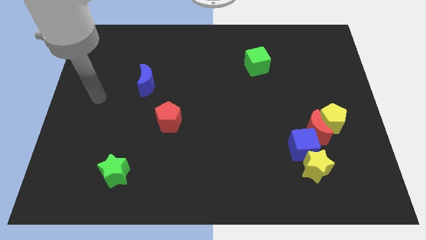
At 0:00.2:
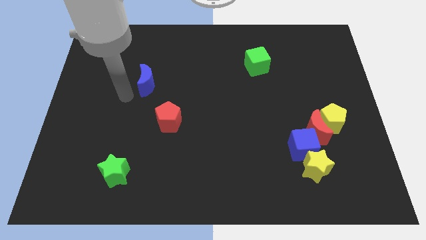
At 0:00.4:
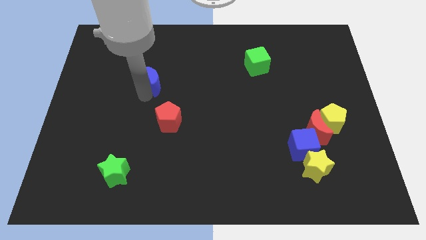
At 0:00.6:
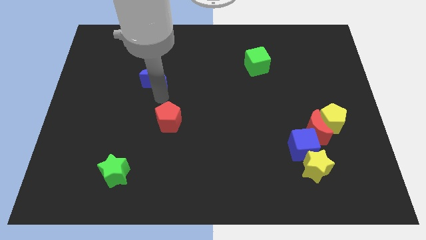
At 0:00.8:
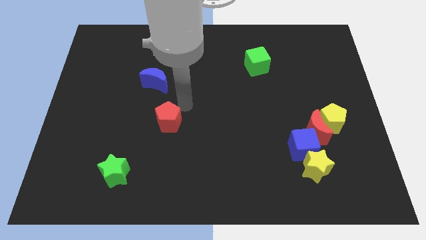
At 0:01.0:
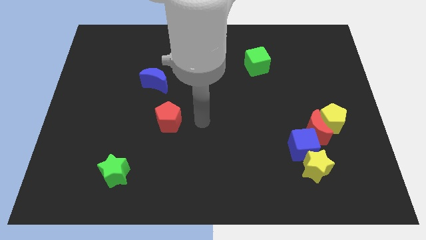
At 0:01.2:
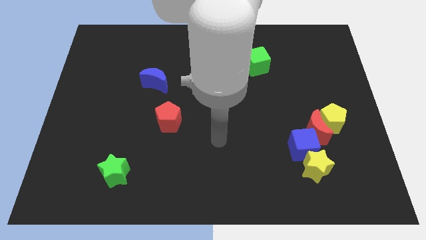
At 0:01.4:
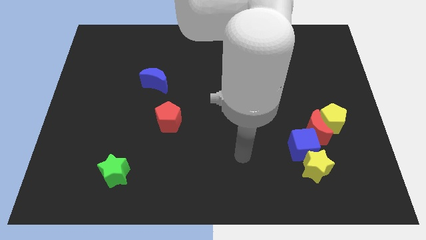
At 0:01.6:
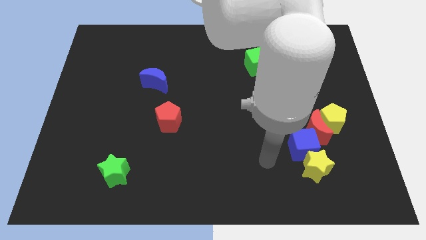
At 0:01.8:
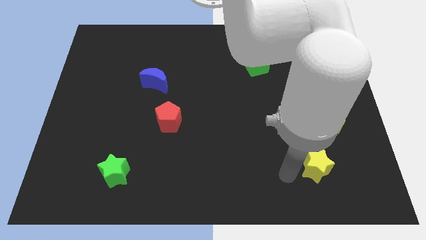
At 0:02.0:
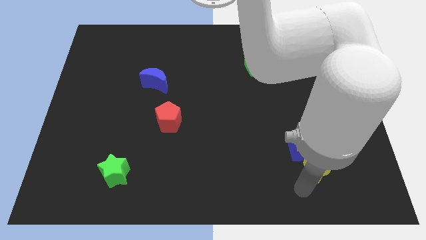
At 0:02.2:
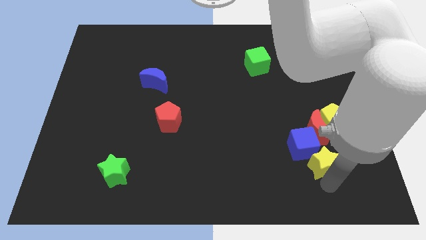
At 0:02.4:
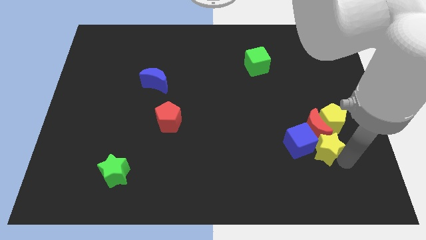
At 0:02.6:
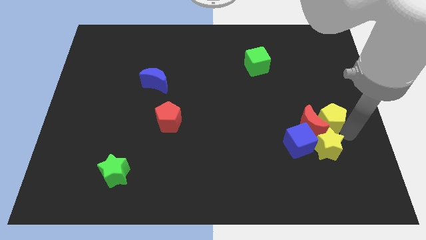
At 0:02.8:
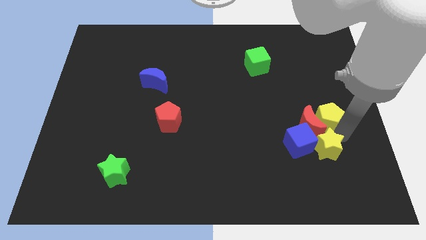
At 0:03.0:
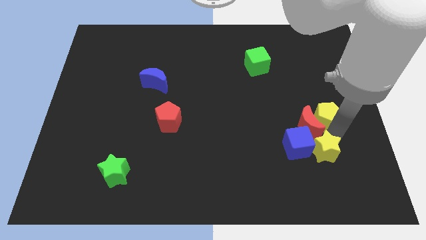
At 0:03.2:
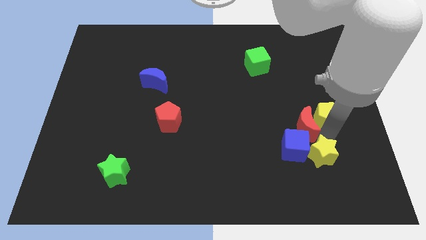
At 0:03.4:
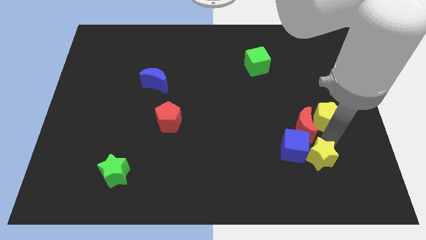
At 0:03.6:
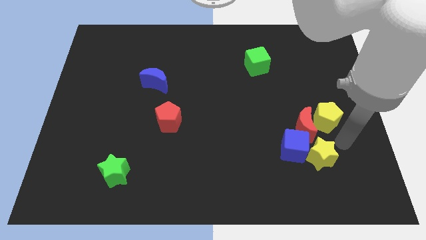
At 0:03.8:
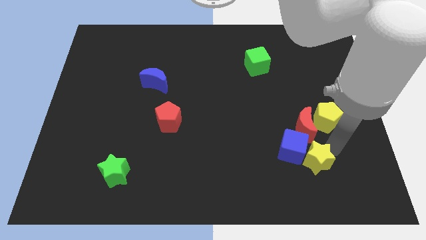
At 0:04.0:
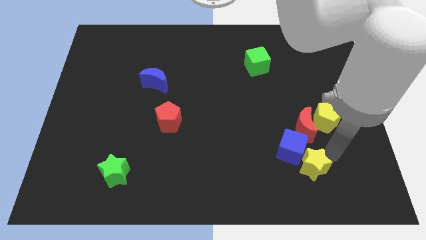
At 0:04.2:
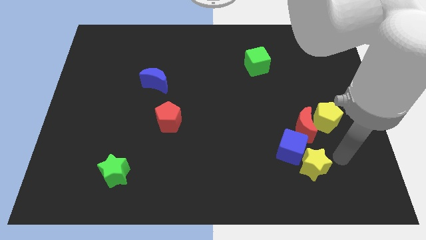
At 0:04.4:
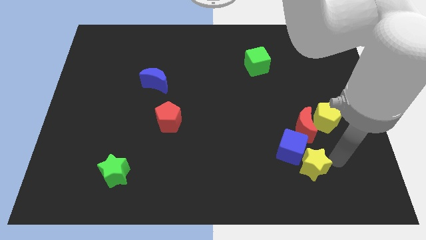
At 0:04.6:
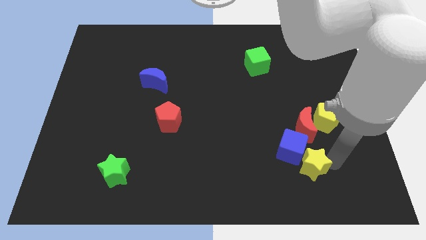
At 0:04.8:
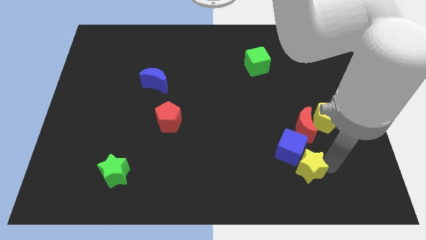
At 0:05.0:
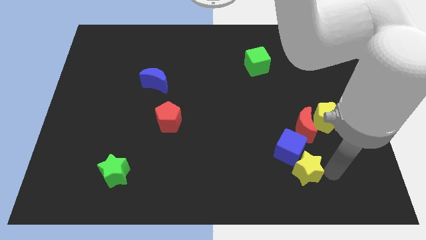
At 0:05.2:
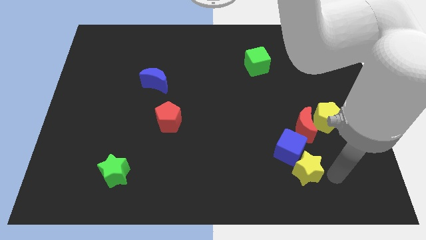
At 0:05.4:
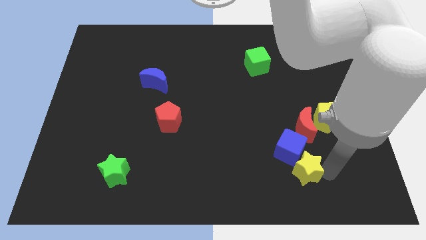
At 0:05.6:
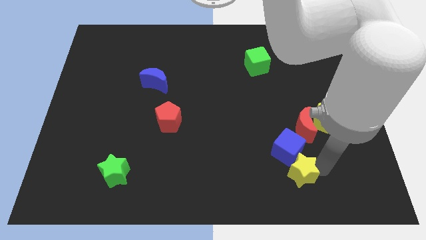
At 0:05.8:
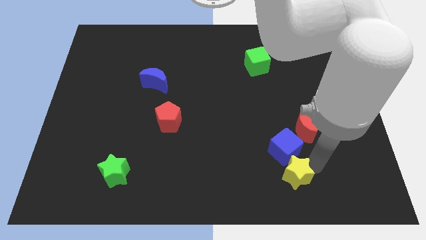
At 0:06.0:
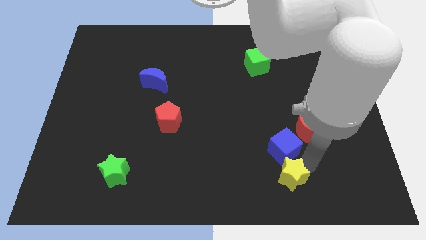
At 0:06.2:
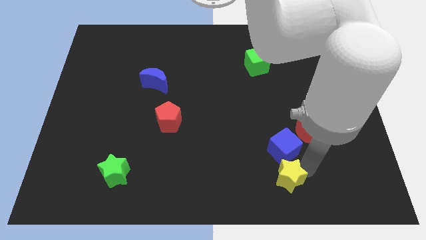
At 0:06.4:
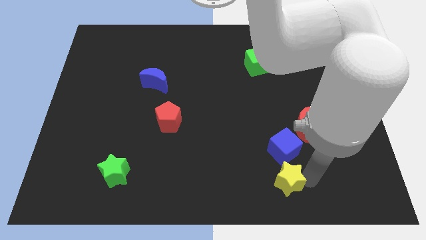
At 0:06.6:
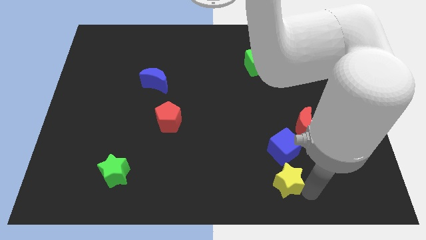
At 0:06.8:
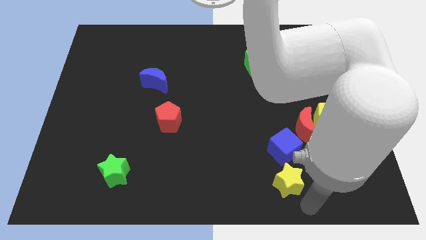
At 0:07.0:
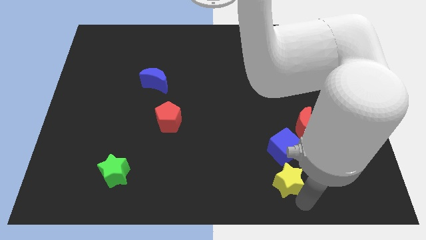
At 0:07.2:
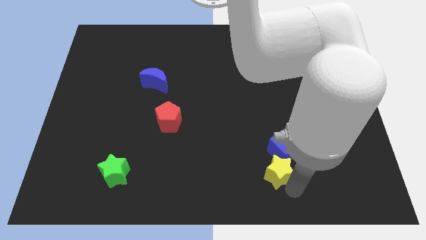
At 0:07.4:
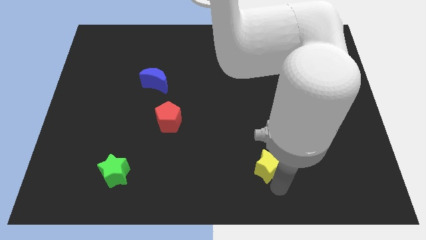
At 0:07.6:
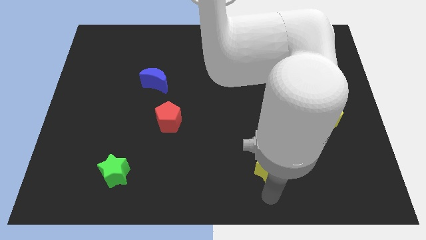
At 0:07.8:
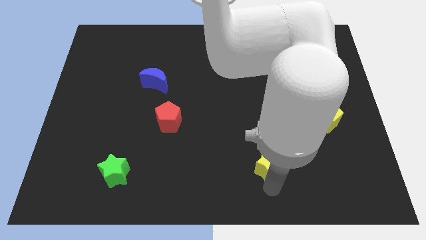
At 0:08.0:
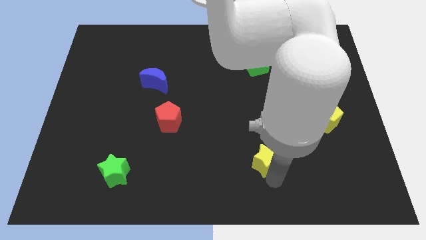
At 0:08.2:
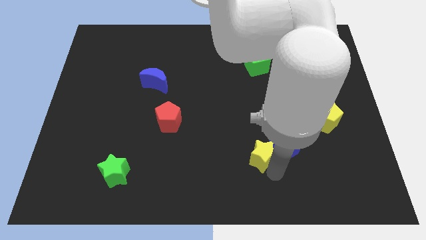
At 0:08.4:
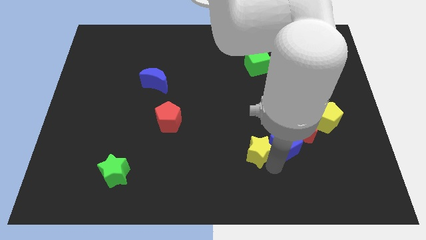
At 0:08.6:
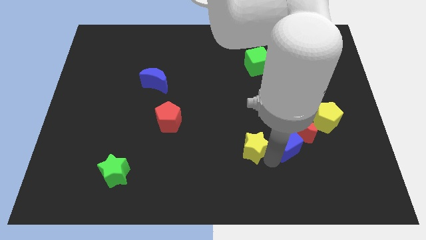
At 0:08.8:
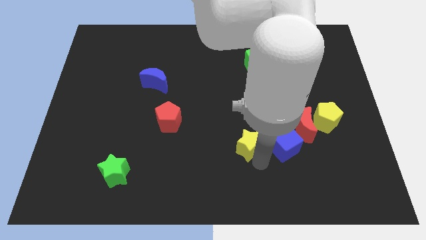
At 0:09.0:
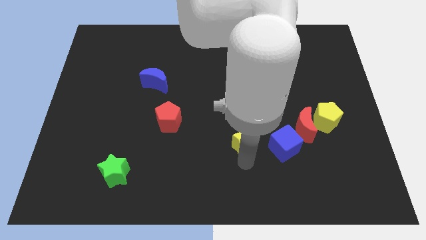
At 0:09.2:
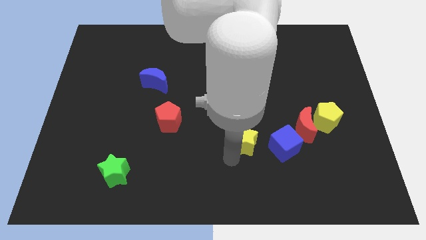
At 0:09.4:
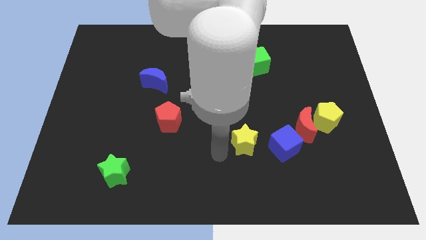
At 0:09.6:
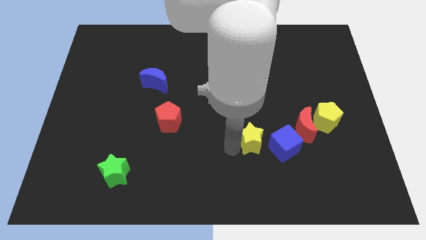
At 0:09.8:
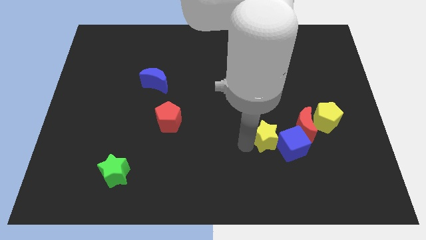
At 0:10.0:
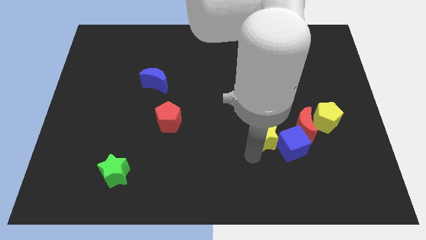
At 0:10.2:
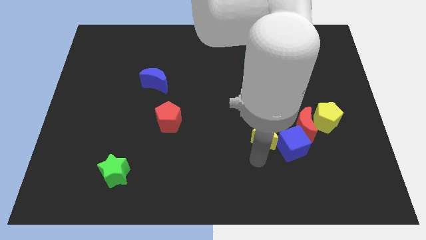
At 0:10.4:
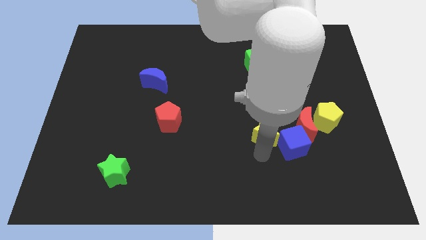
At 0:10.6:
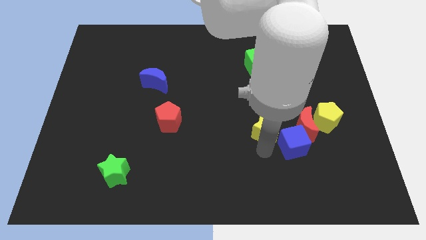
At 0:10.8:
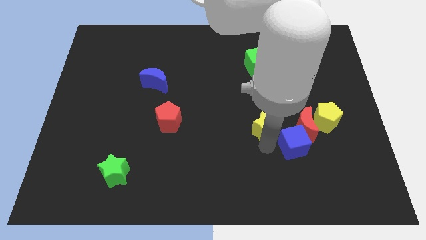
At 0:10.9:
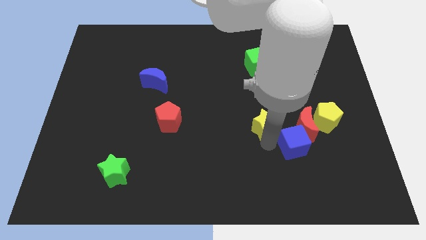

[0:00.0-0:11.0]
move the yellow star slightly upwards

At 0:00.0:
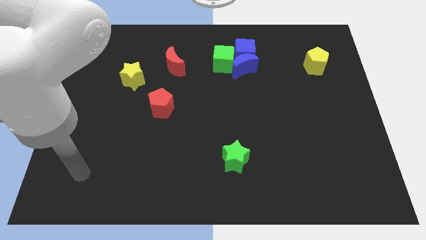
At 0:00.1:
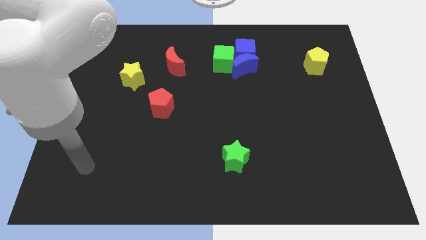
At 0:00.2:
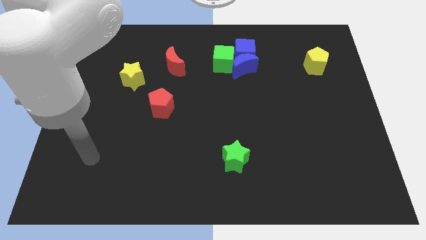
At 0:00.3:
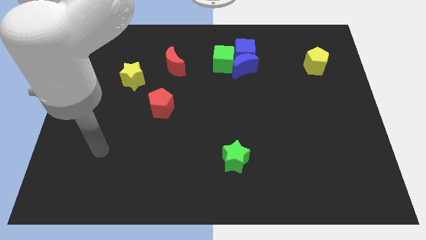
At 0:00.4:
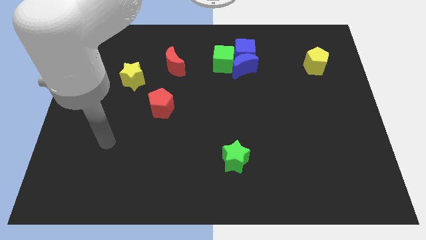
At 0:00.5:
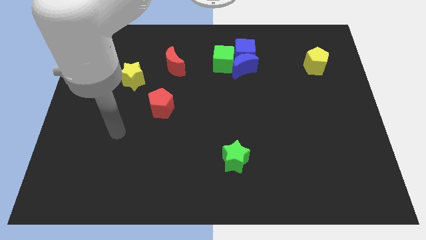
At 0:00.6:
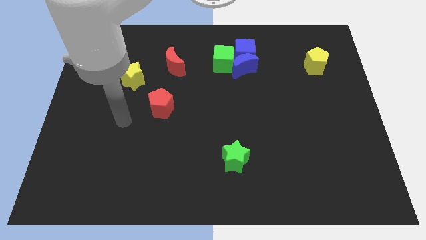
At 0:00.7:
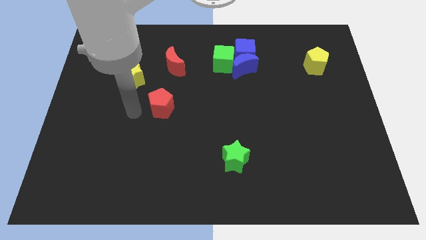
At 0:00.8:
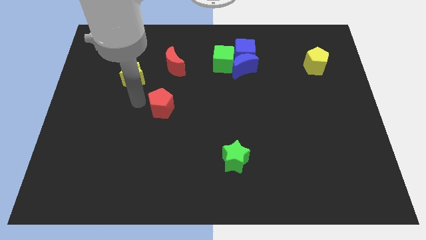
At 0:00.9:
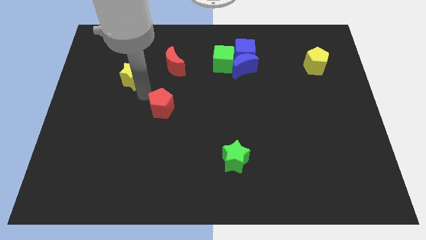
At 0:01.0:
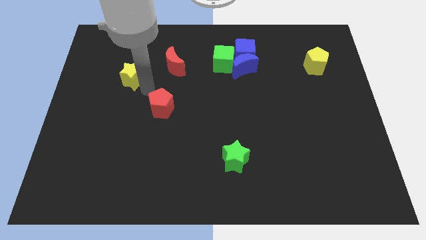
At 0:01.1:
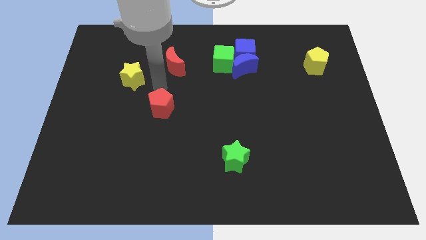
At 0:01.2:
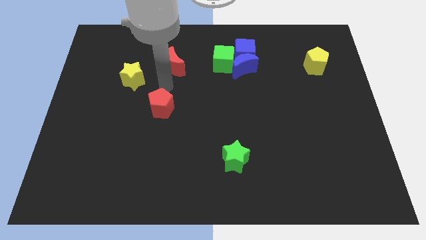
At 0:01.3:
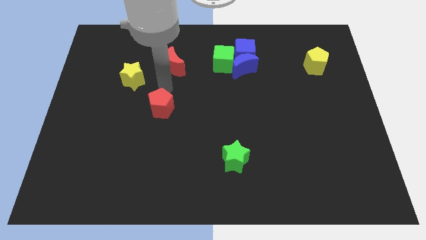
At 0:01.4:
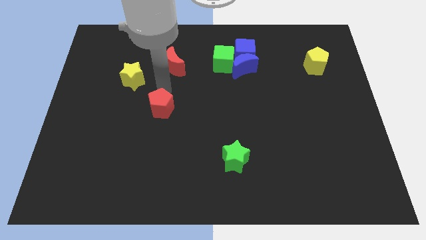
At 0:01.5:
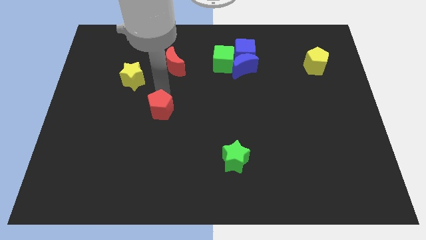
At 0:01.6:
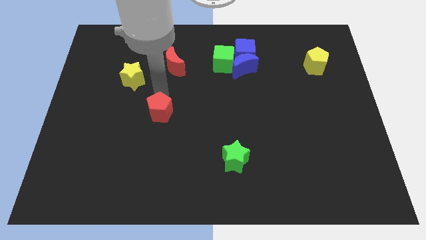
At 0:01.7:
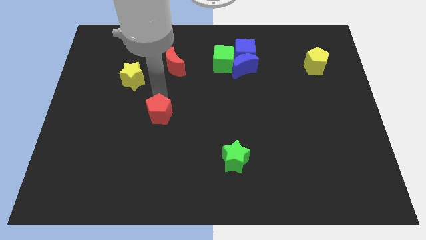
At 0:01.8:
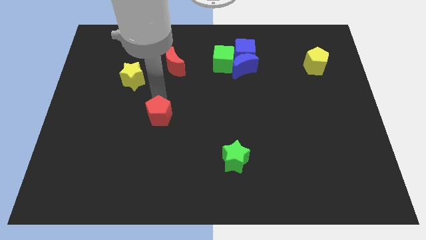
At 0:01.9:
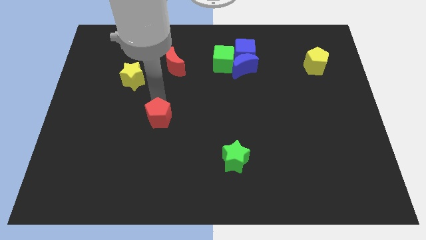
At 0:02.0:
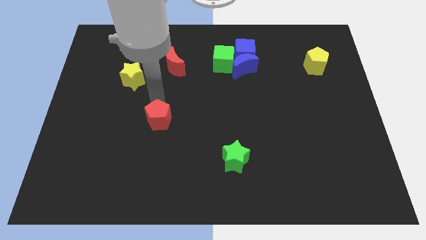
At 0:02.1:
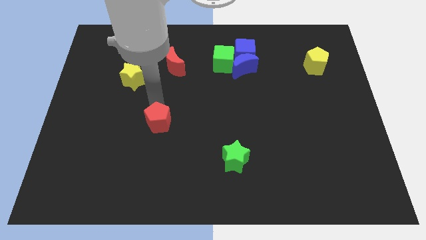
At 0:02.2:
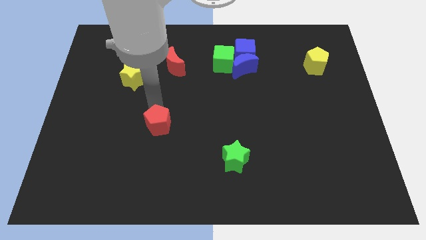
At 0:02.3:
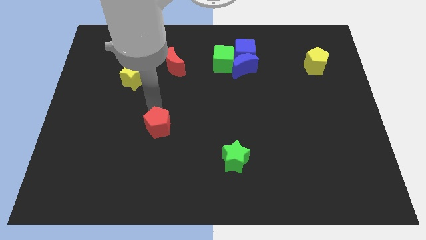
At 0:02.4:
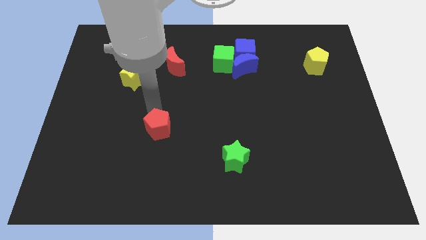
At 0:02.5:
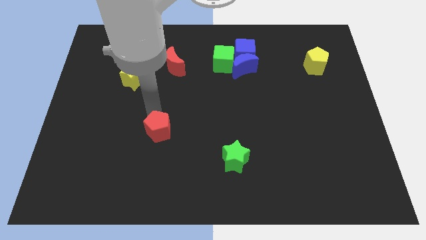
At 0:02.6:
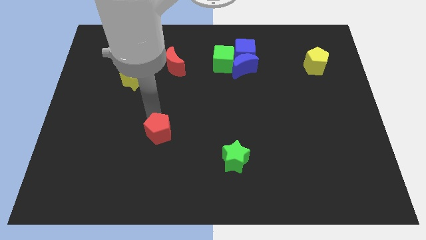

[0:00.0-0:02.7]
slightly push the red pentagon down
